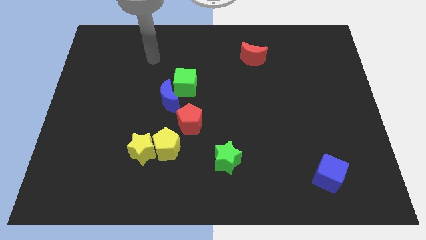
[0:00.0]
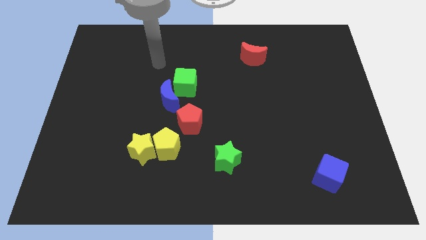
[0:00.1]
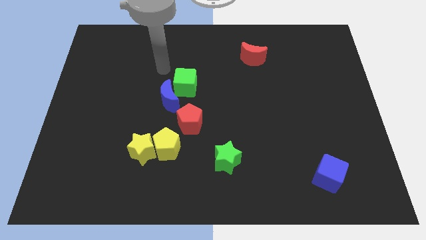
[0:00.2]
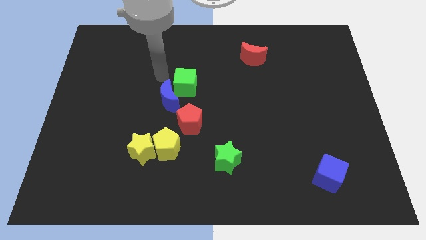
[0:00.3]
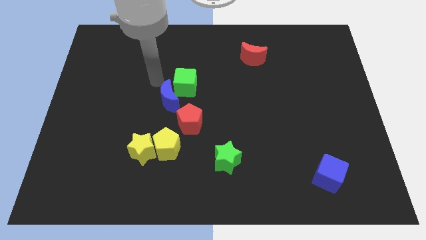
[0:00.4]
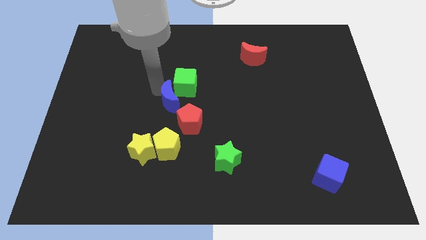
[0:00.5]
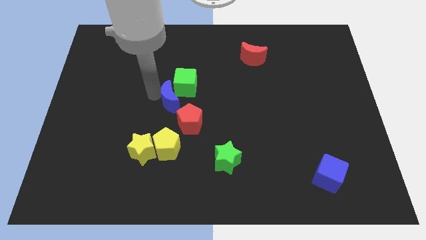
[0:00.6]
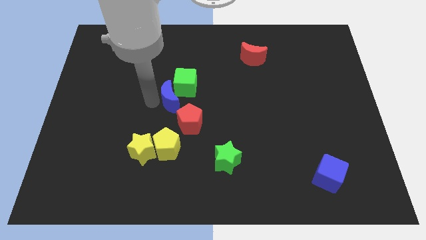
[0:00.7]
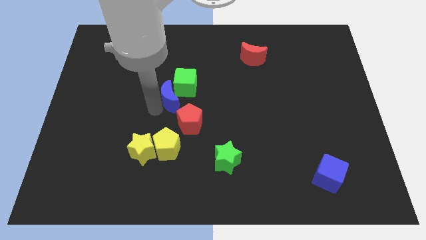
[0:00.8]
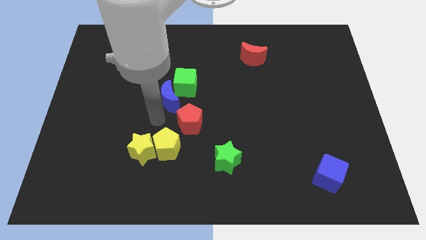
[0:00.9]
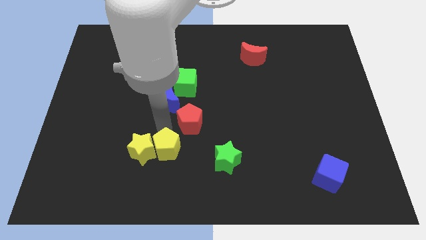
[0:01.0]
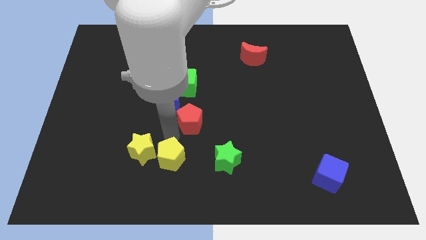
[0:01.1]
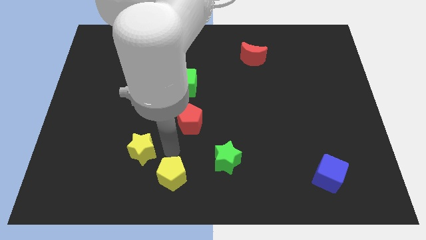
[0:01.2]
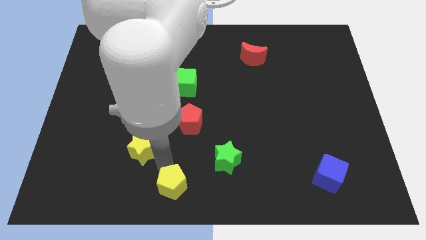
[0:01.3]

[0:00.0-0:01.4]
move the yellow star away from the yellow pentagon

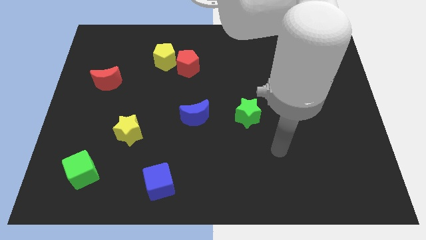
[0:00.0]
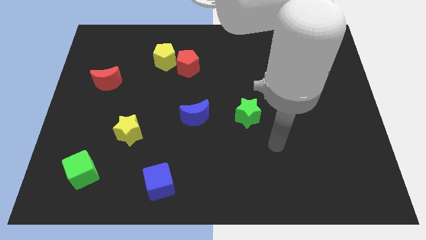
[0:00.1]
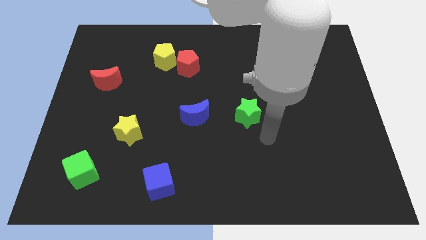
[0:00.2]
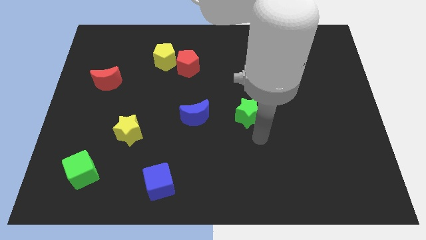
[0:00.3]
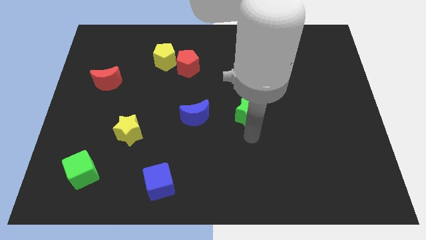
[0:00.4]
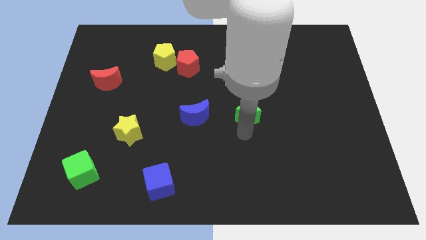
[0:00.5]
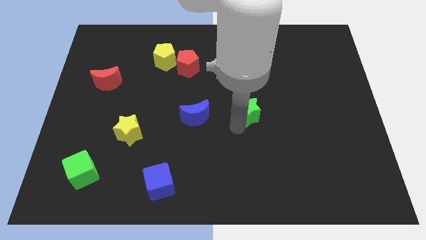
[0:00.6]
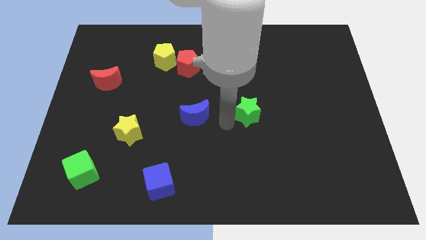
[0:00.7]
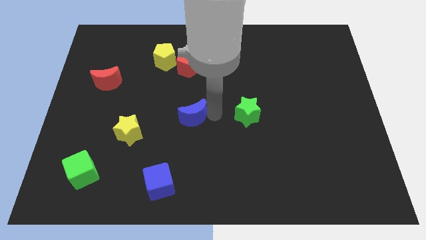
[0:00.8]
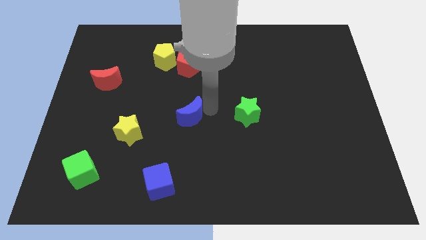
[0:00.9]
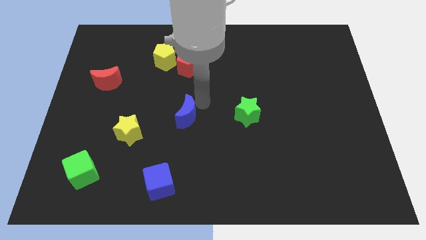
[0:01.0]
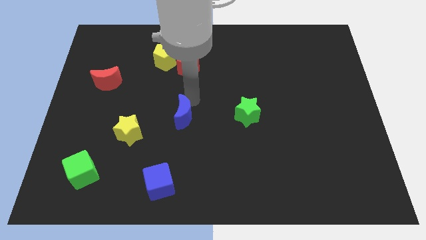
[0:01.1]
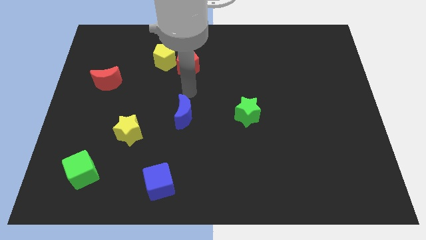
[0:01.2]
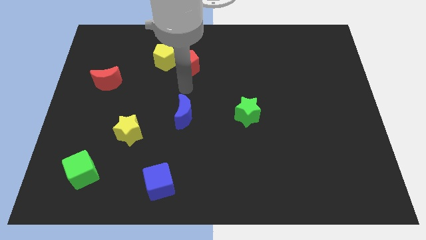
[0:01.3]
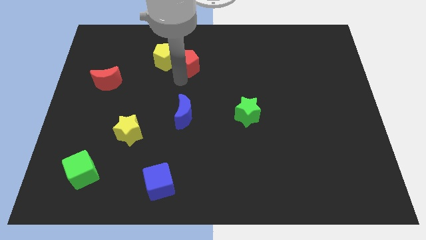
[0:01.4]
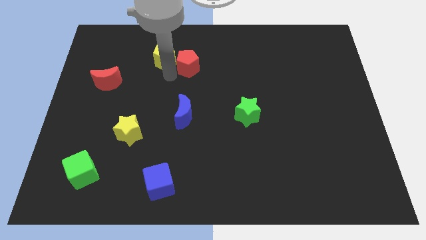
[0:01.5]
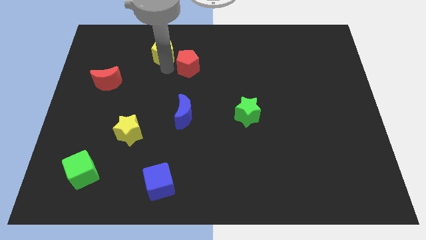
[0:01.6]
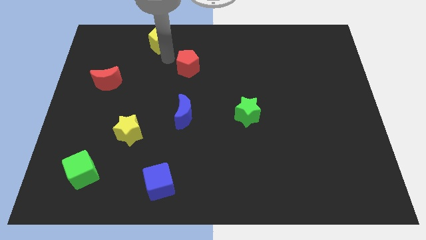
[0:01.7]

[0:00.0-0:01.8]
move the red pentagon away from the yellow pentagon

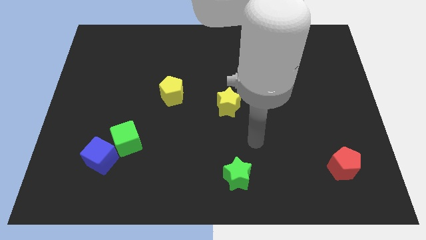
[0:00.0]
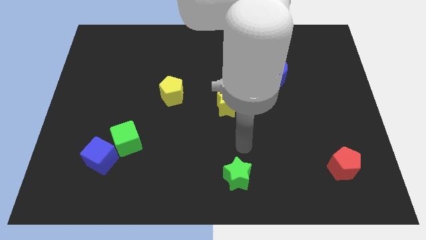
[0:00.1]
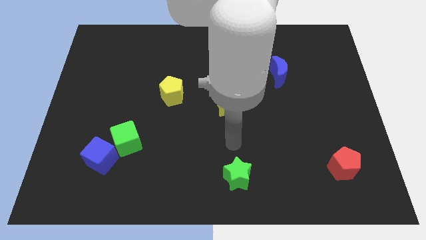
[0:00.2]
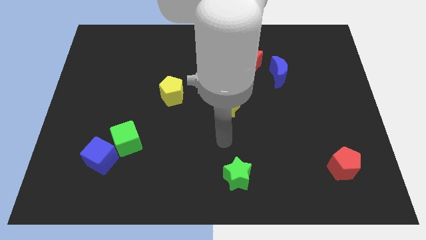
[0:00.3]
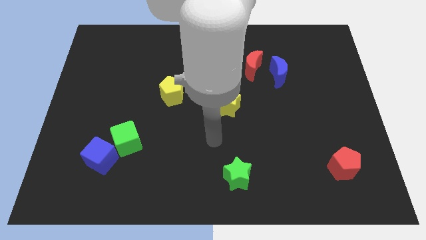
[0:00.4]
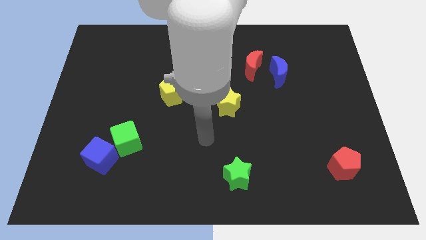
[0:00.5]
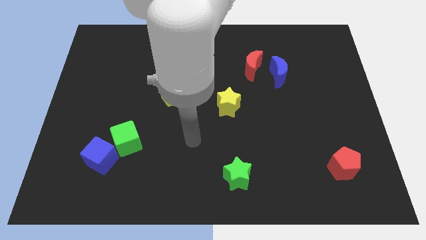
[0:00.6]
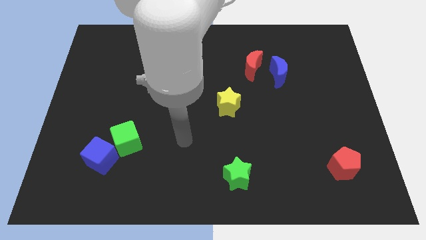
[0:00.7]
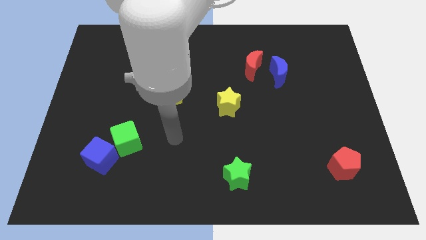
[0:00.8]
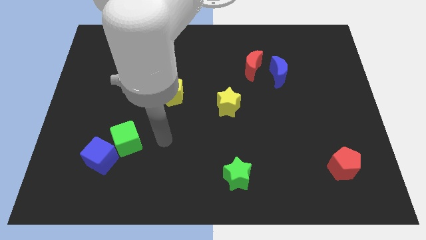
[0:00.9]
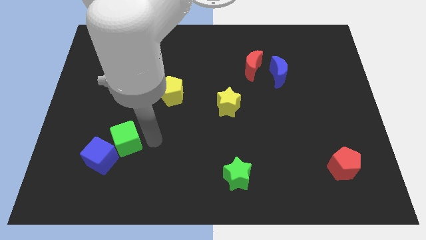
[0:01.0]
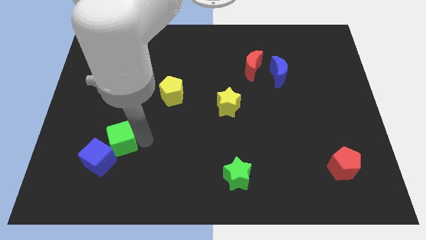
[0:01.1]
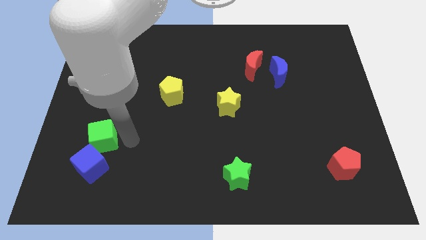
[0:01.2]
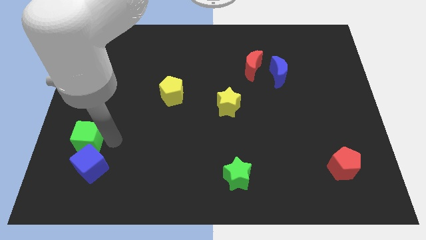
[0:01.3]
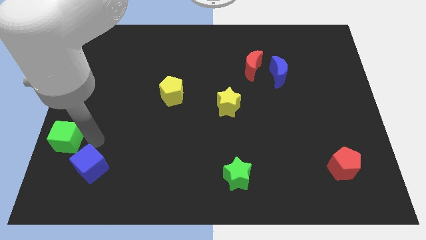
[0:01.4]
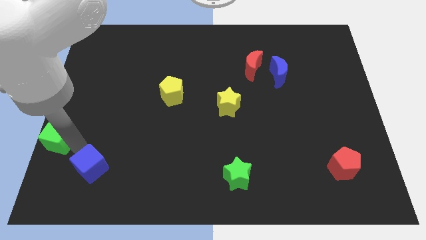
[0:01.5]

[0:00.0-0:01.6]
move the blue cube away from the green cube

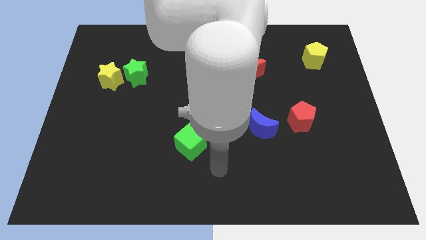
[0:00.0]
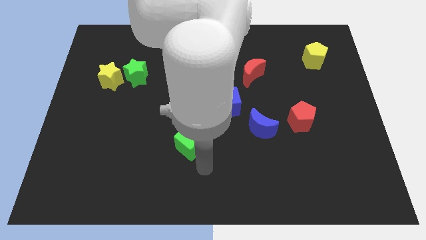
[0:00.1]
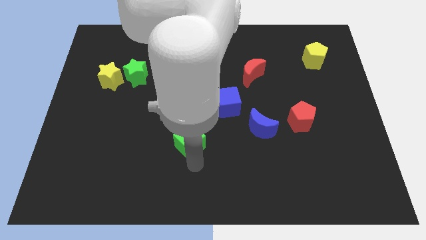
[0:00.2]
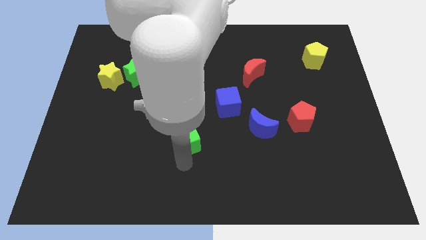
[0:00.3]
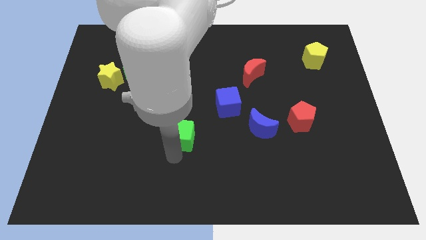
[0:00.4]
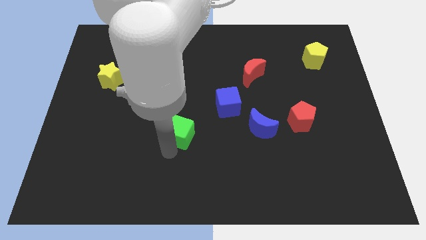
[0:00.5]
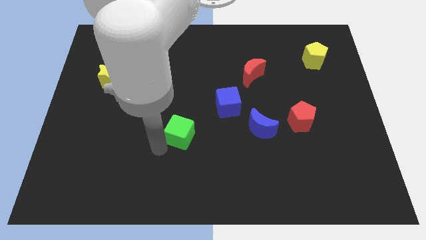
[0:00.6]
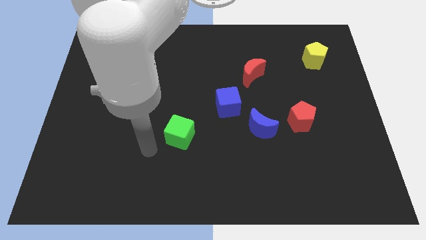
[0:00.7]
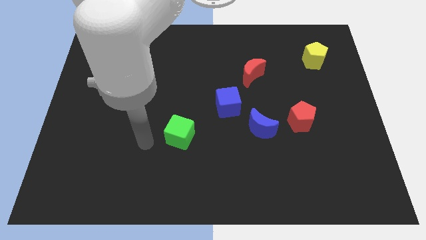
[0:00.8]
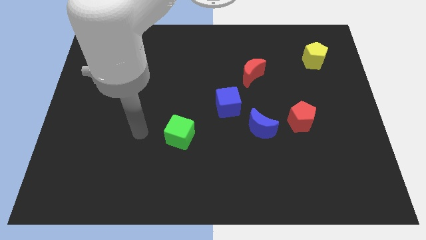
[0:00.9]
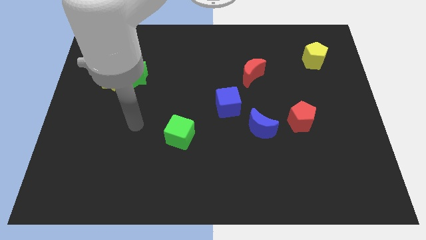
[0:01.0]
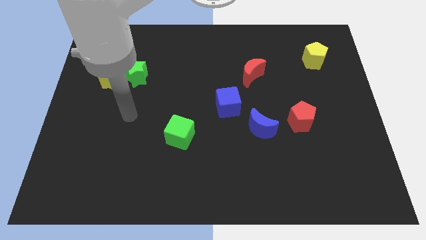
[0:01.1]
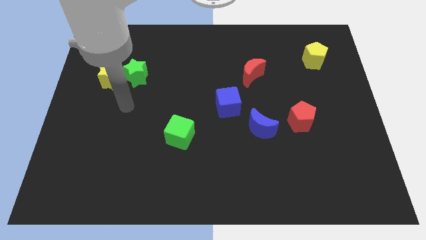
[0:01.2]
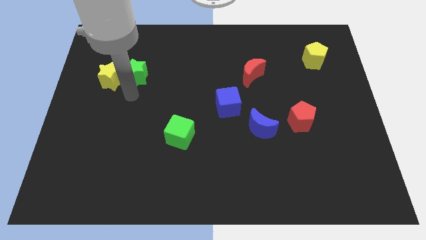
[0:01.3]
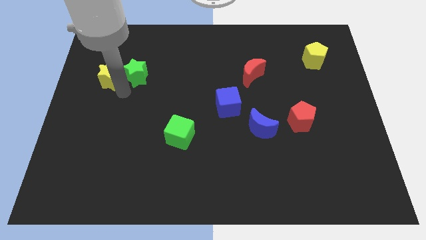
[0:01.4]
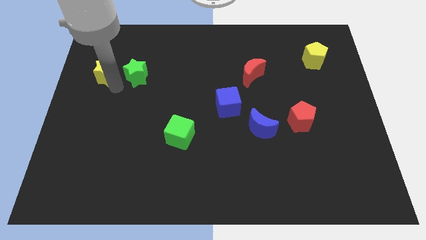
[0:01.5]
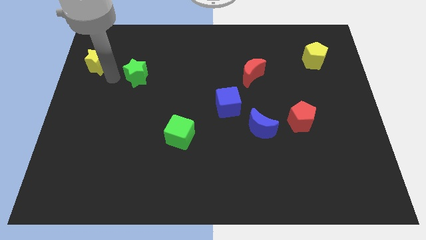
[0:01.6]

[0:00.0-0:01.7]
pull the green star apart from the yellow star

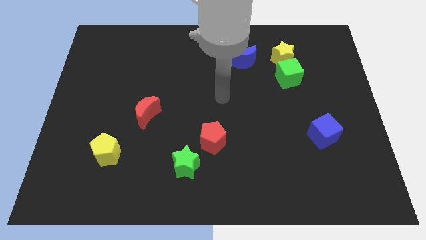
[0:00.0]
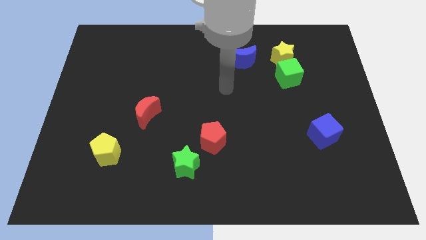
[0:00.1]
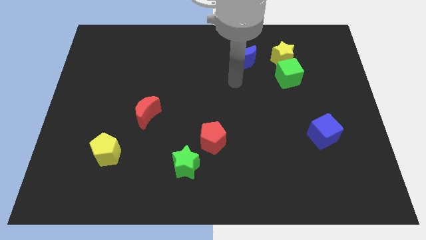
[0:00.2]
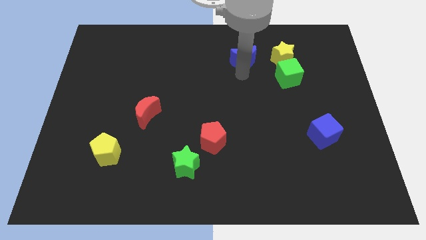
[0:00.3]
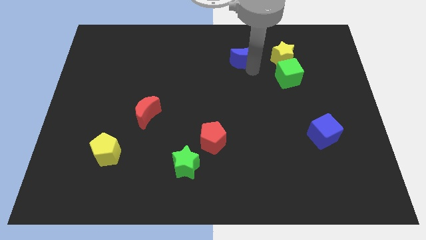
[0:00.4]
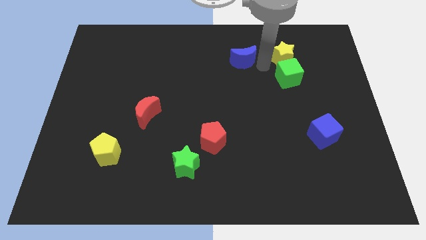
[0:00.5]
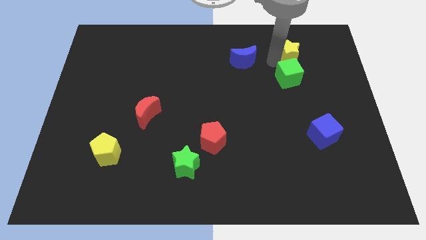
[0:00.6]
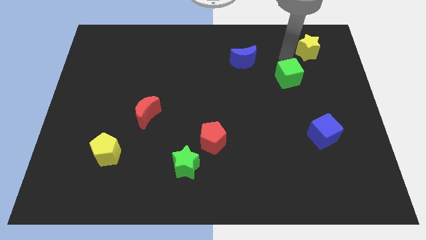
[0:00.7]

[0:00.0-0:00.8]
separate the green cube from the yellow star

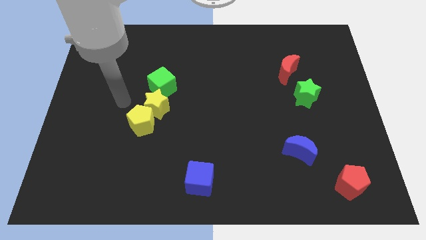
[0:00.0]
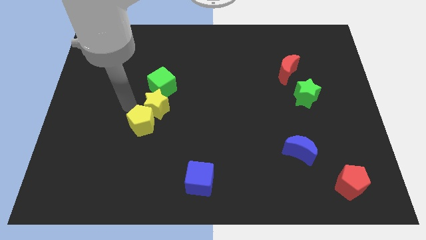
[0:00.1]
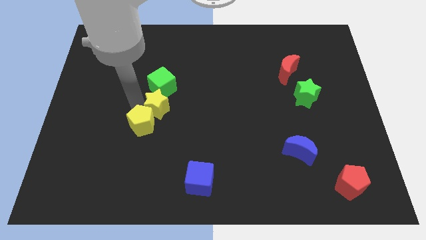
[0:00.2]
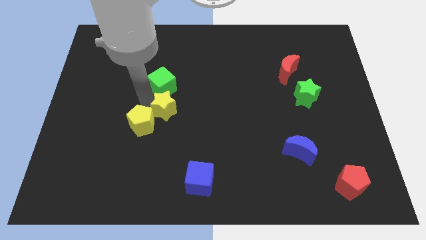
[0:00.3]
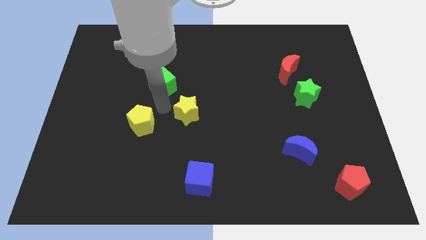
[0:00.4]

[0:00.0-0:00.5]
separate the yellow pentagon from the yellow star

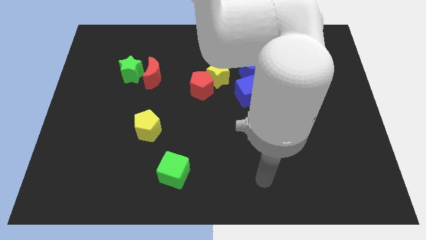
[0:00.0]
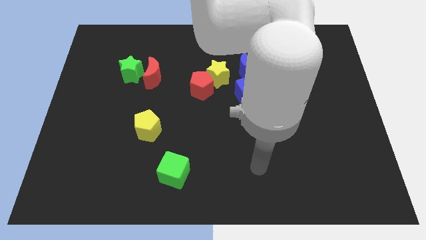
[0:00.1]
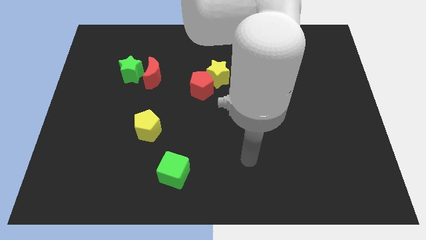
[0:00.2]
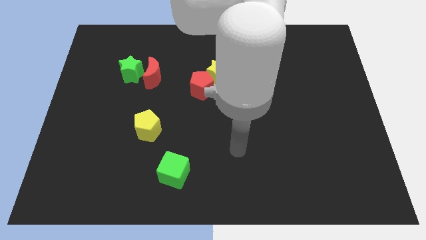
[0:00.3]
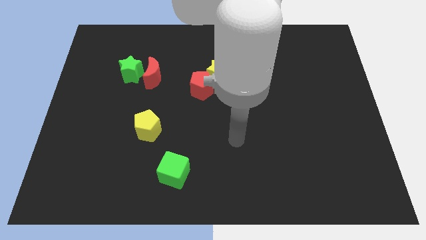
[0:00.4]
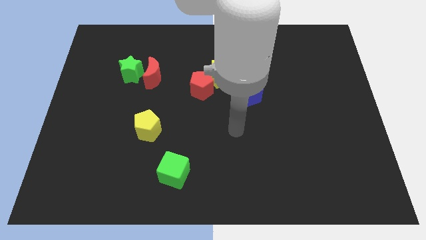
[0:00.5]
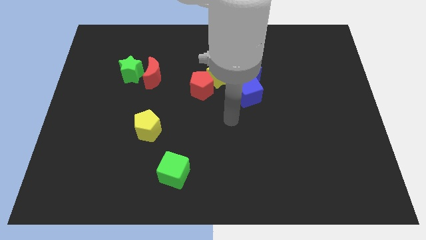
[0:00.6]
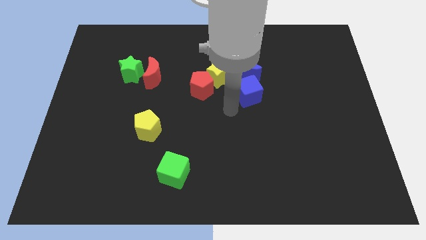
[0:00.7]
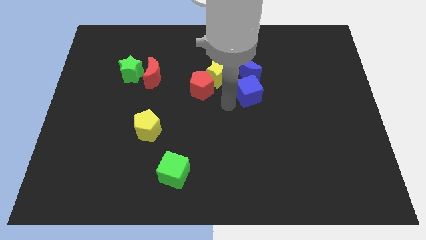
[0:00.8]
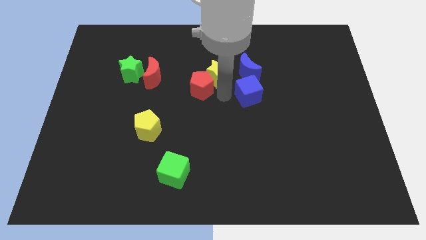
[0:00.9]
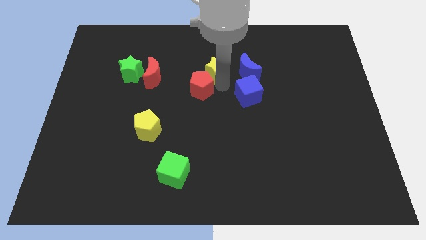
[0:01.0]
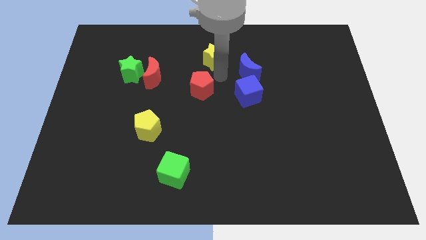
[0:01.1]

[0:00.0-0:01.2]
separate the red pentagon from the yellow star

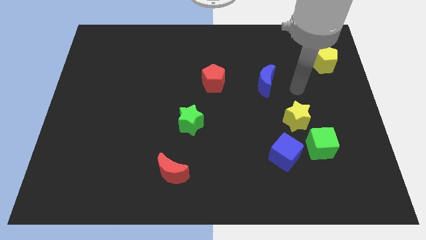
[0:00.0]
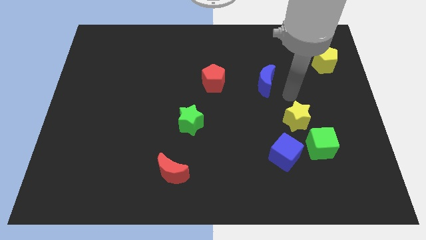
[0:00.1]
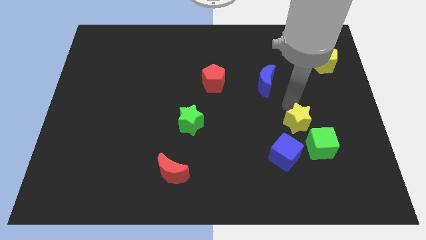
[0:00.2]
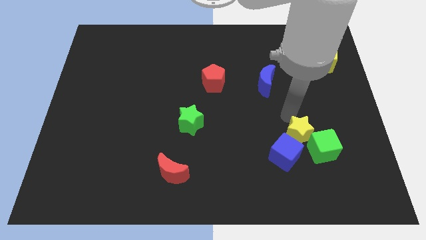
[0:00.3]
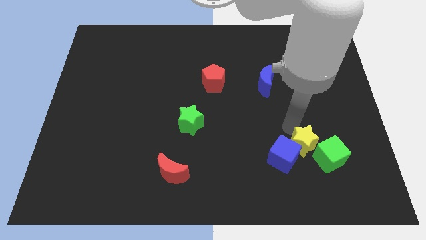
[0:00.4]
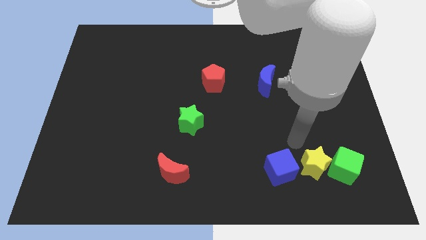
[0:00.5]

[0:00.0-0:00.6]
pull the green cube apart from the blue cube and yellow star
